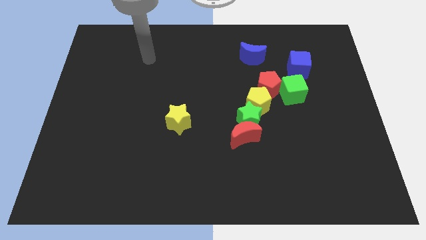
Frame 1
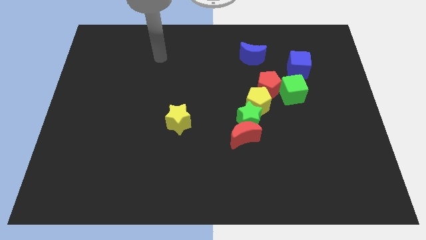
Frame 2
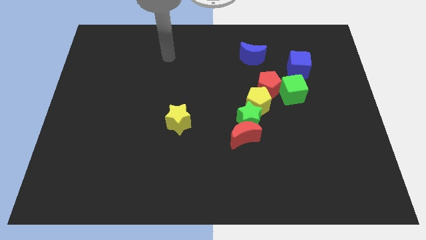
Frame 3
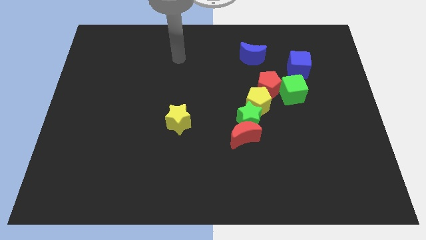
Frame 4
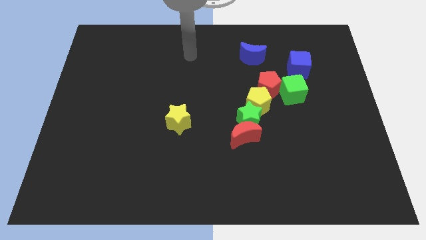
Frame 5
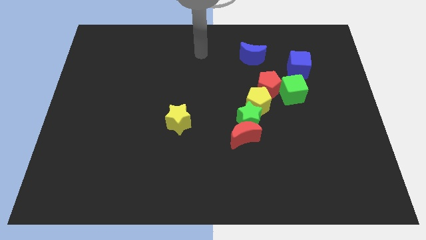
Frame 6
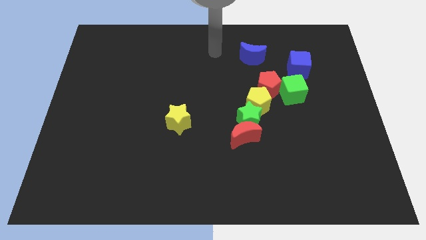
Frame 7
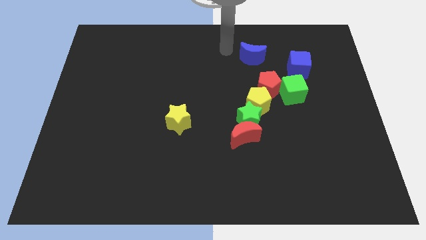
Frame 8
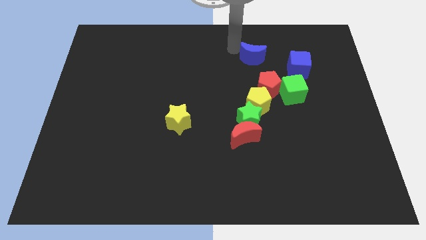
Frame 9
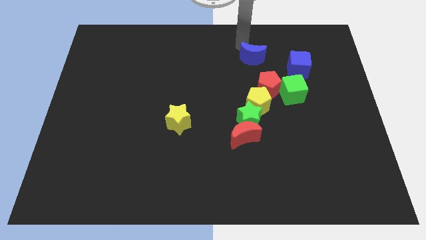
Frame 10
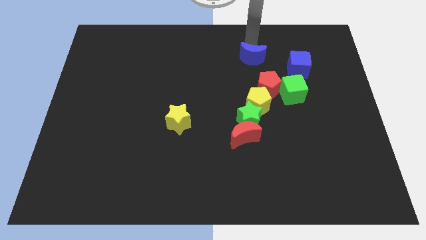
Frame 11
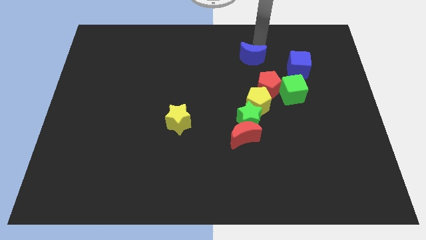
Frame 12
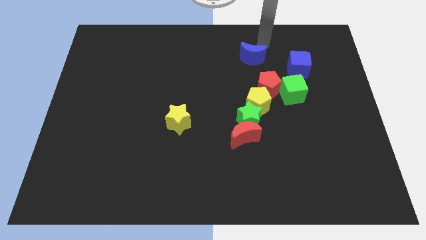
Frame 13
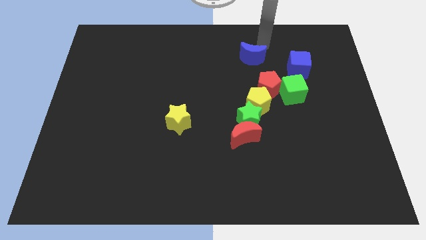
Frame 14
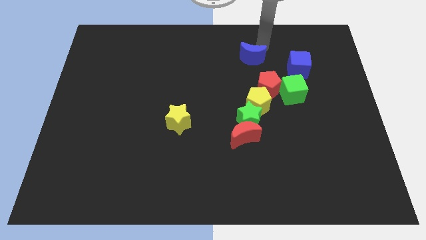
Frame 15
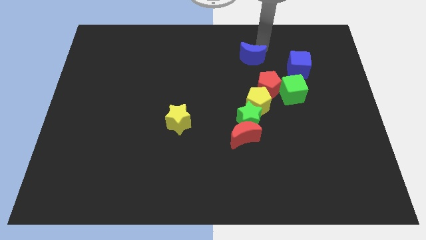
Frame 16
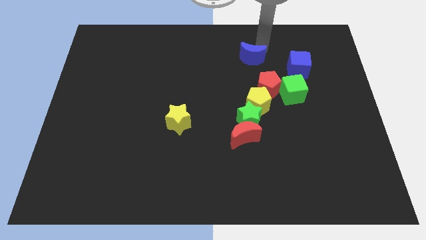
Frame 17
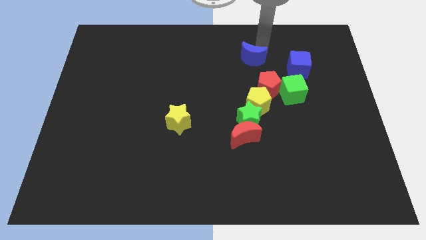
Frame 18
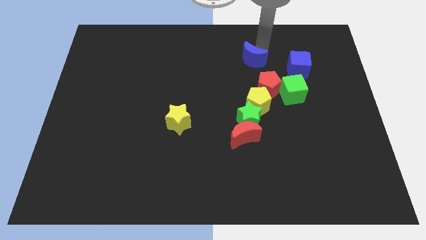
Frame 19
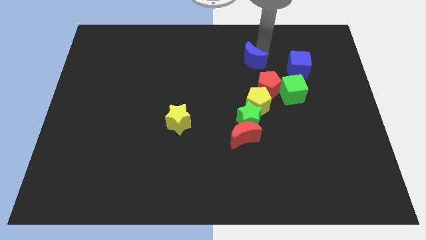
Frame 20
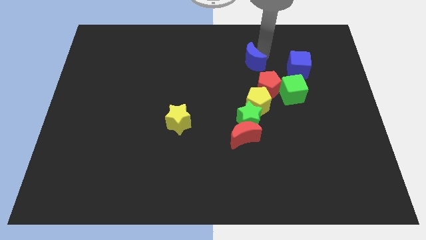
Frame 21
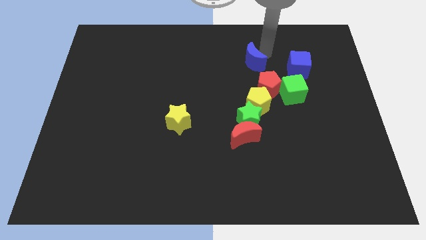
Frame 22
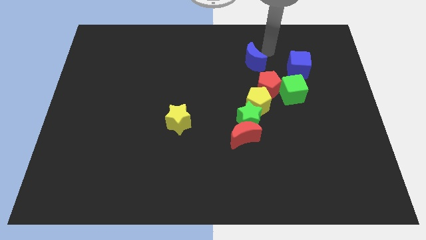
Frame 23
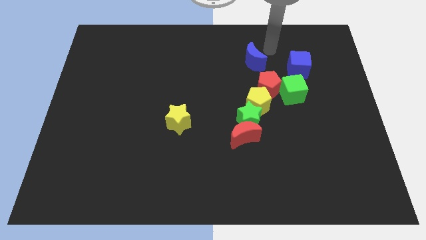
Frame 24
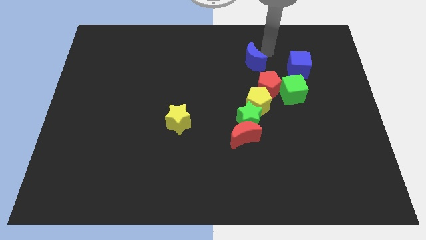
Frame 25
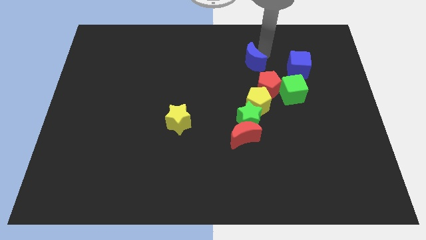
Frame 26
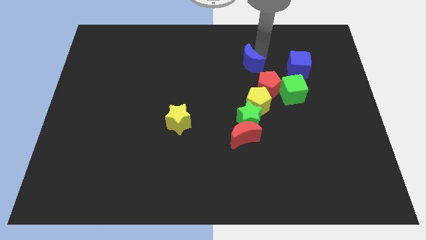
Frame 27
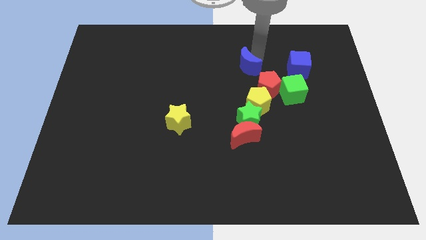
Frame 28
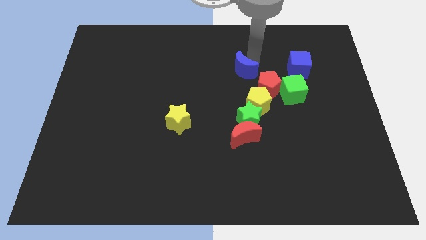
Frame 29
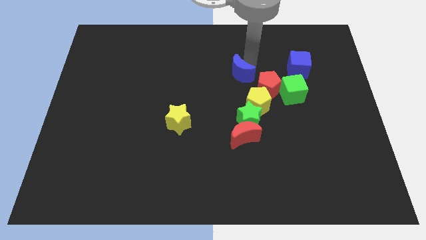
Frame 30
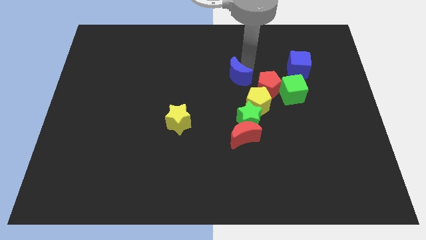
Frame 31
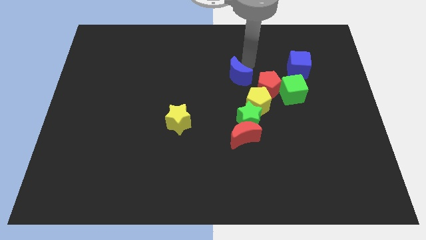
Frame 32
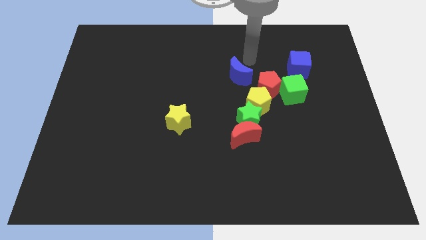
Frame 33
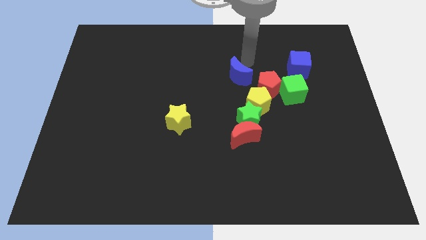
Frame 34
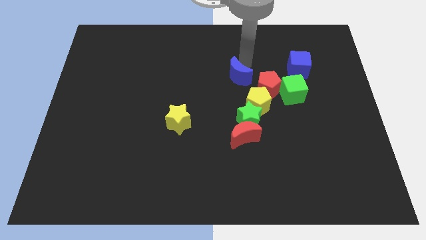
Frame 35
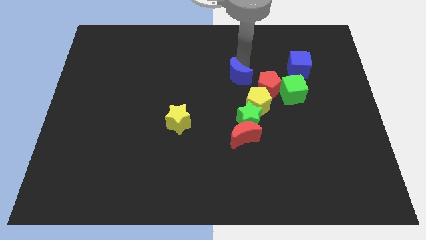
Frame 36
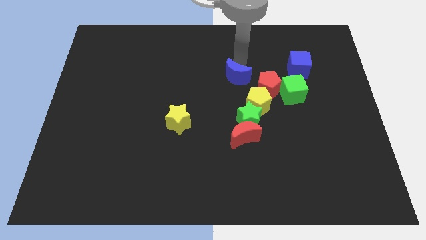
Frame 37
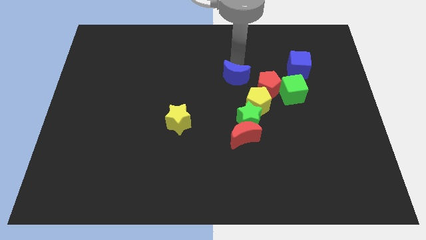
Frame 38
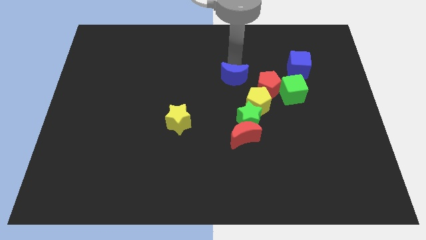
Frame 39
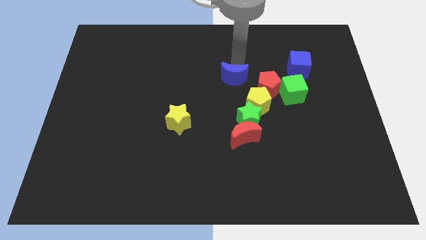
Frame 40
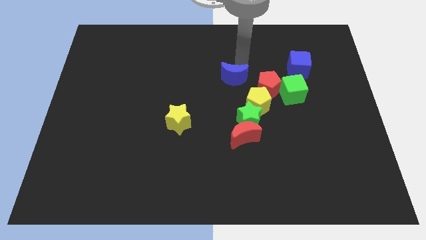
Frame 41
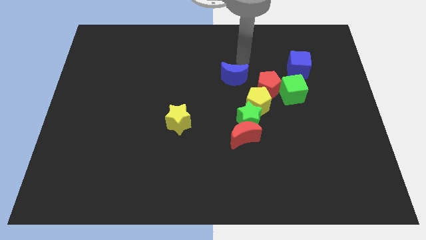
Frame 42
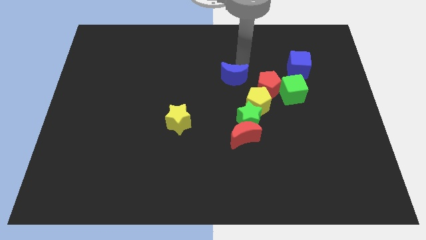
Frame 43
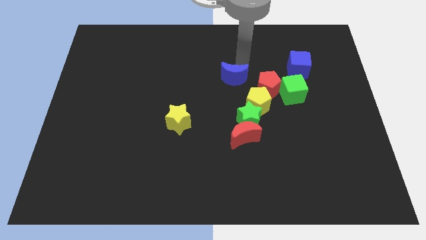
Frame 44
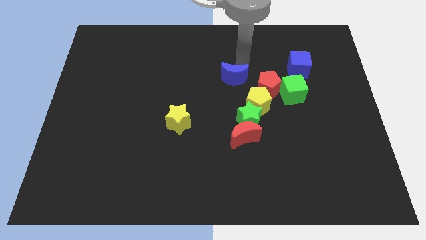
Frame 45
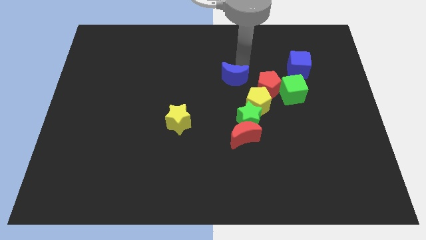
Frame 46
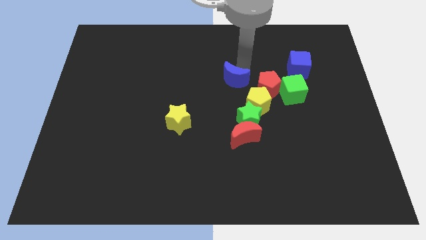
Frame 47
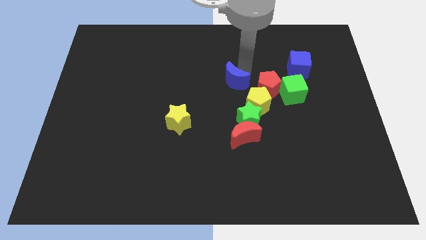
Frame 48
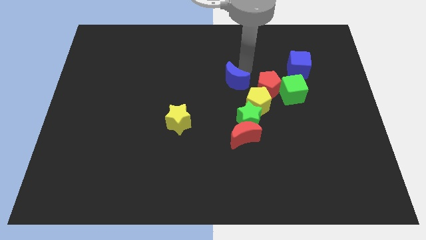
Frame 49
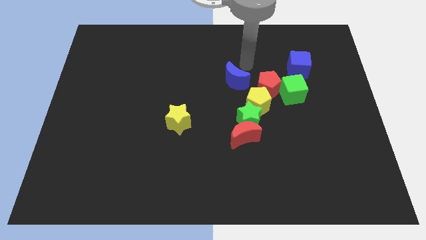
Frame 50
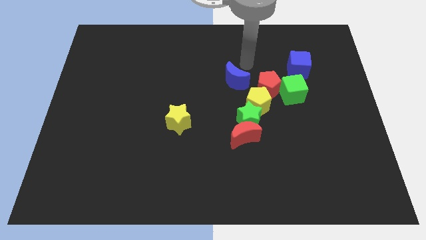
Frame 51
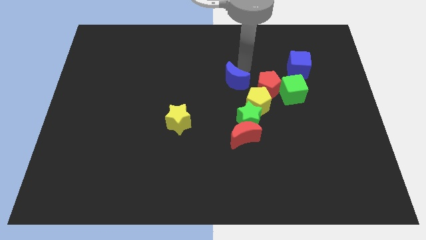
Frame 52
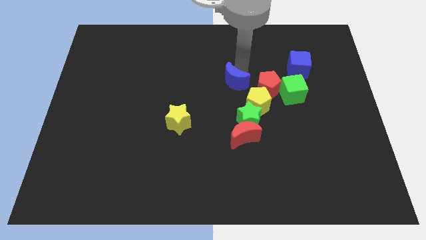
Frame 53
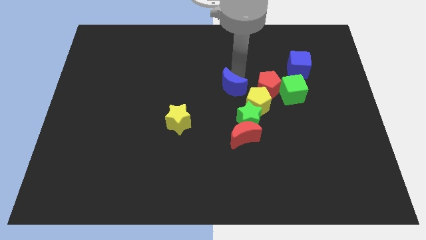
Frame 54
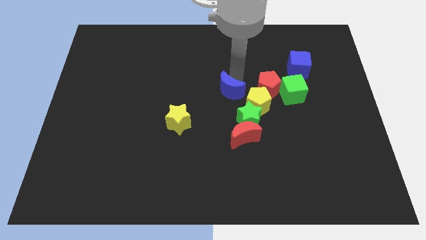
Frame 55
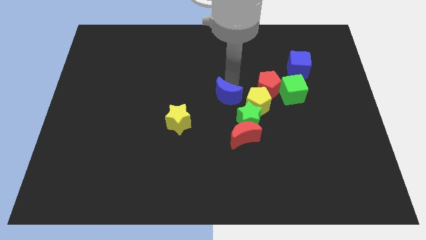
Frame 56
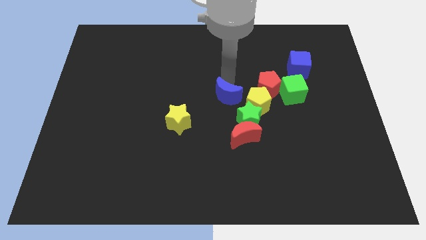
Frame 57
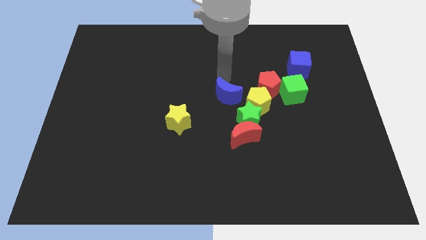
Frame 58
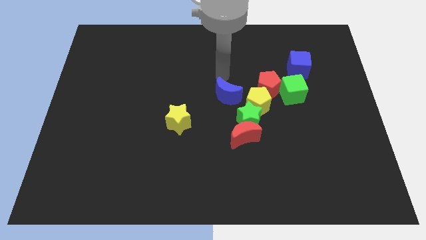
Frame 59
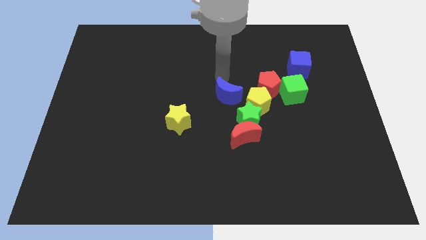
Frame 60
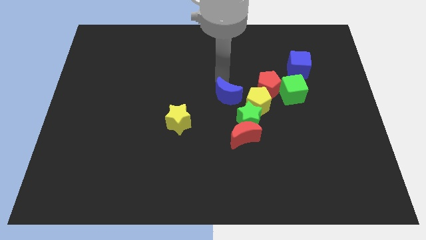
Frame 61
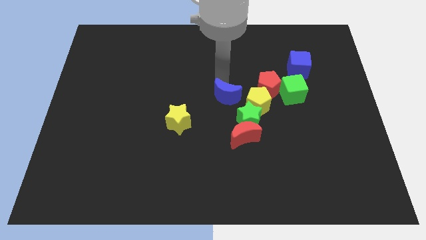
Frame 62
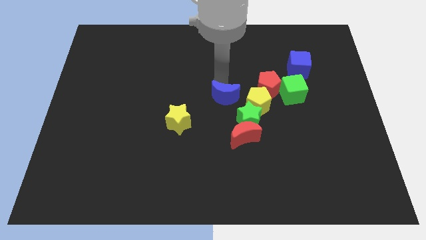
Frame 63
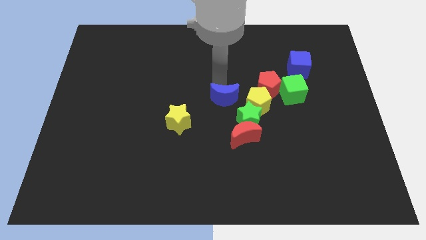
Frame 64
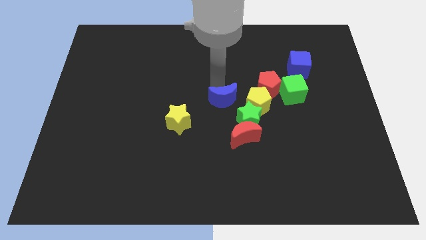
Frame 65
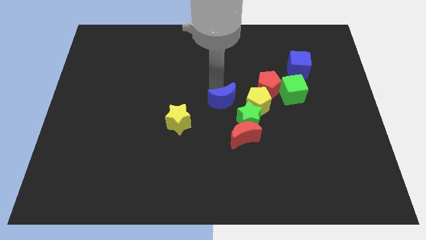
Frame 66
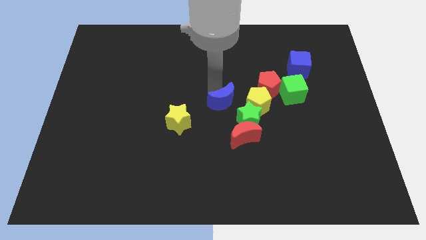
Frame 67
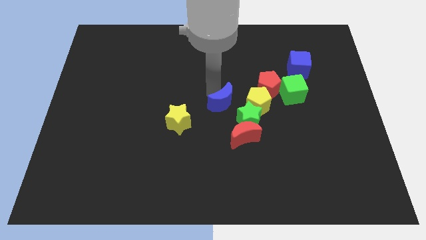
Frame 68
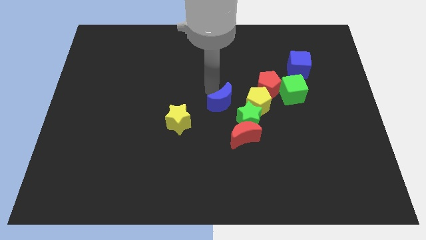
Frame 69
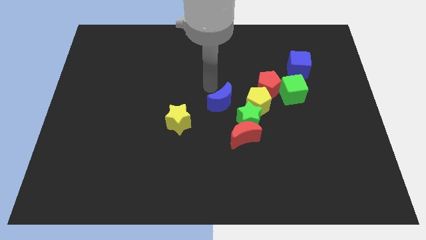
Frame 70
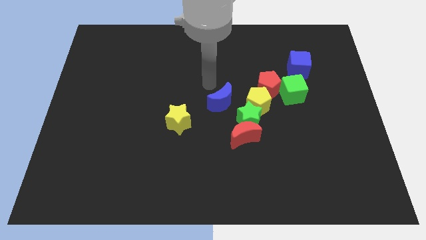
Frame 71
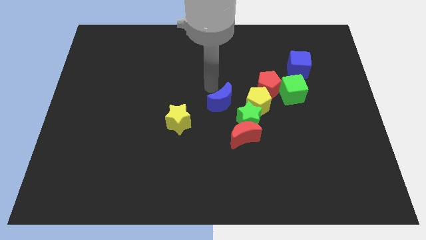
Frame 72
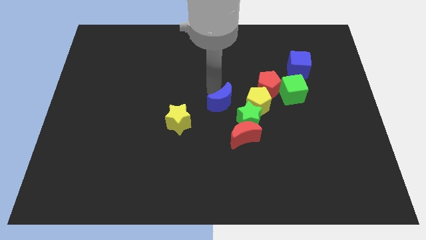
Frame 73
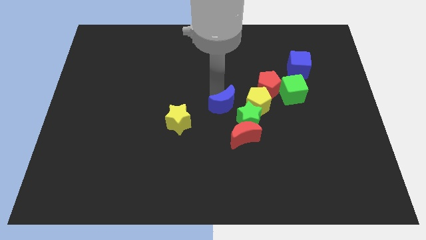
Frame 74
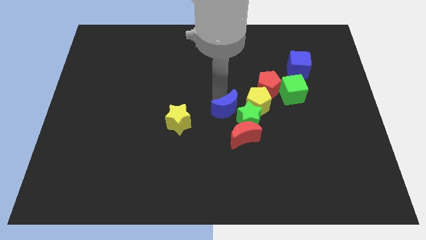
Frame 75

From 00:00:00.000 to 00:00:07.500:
put the blue moon next to the green star
